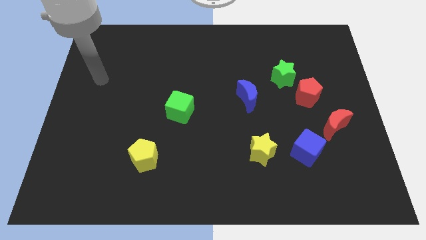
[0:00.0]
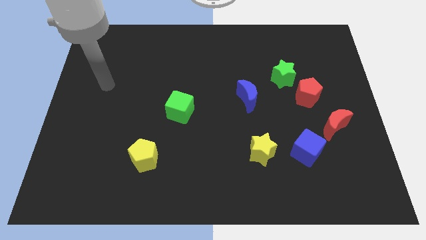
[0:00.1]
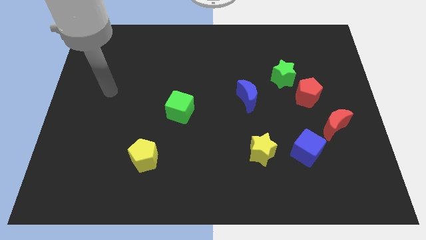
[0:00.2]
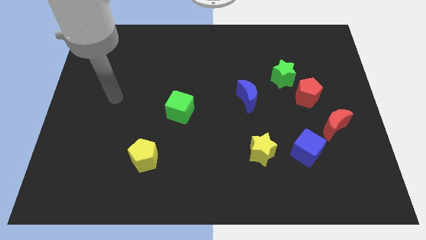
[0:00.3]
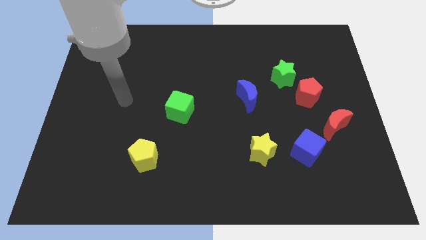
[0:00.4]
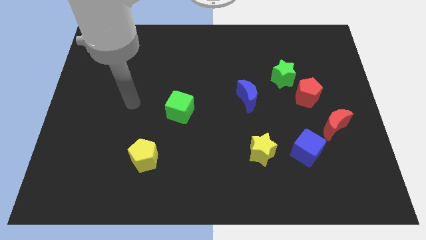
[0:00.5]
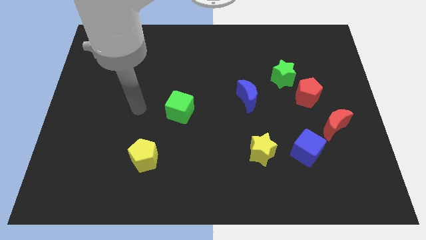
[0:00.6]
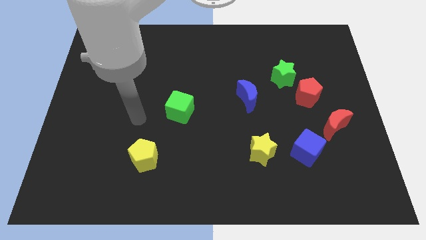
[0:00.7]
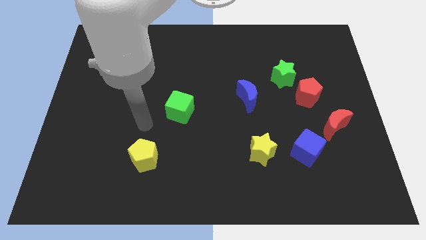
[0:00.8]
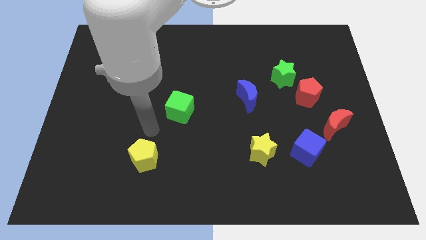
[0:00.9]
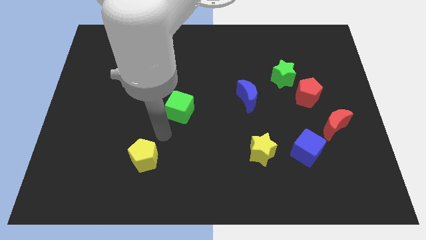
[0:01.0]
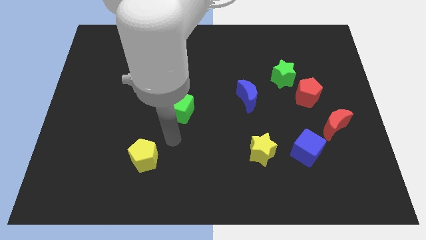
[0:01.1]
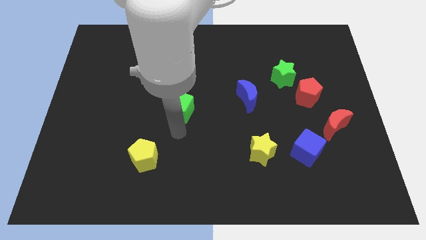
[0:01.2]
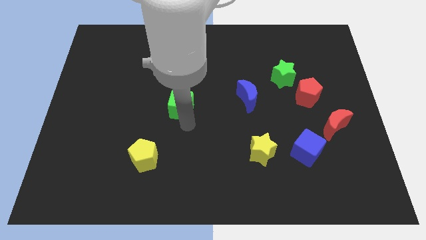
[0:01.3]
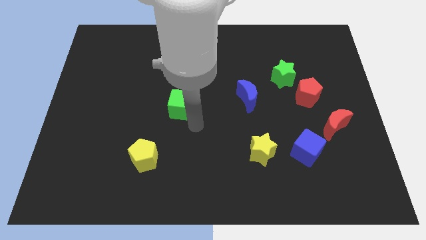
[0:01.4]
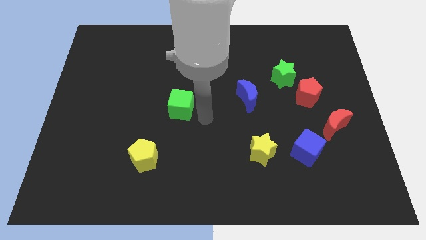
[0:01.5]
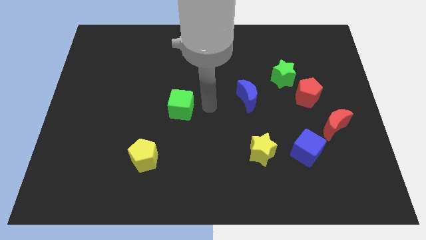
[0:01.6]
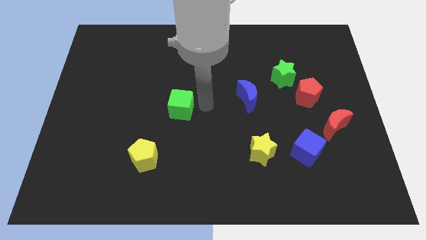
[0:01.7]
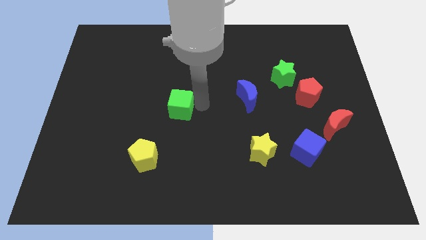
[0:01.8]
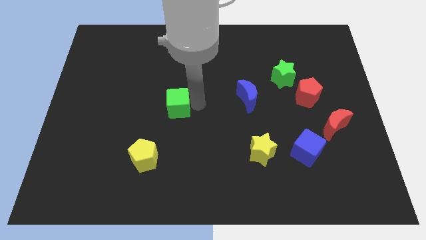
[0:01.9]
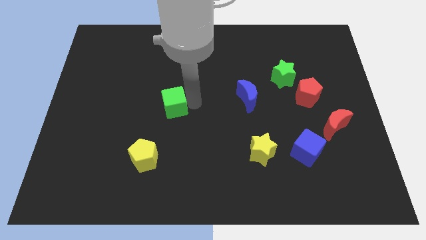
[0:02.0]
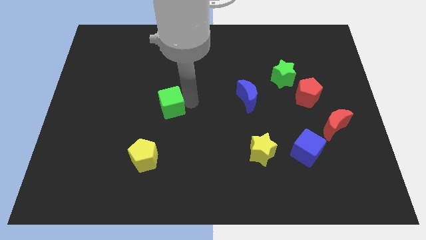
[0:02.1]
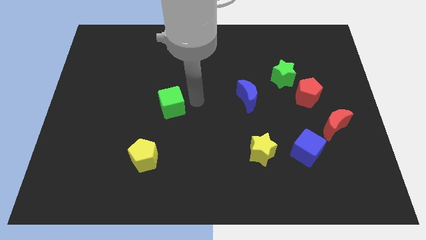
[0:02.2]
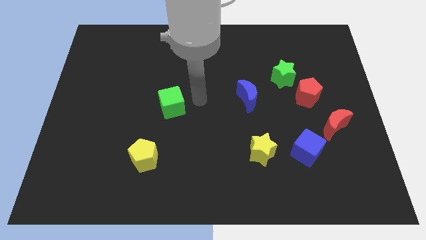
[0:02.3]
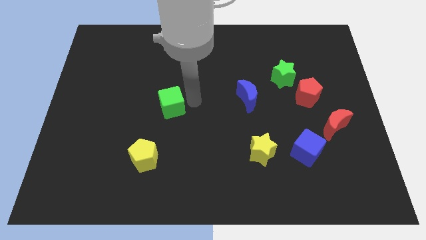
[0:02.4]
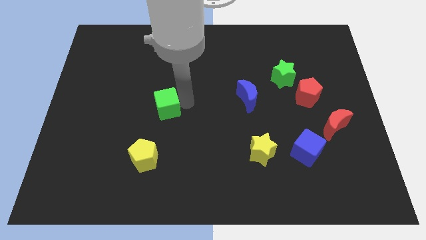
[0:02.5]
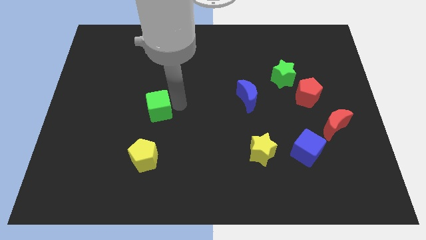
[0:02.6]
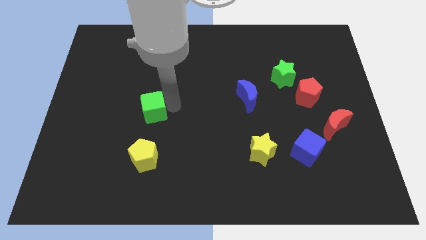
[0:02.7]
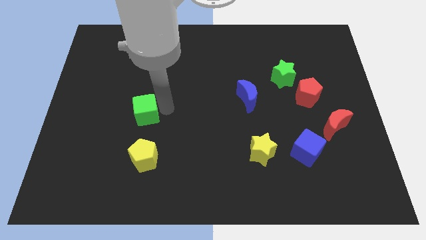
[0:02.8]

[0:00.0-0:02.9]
push the green cube to the left a little

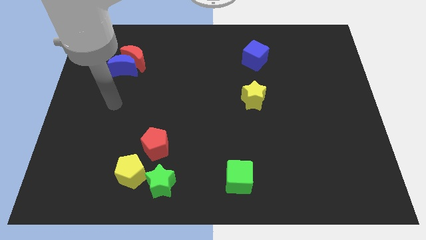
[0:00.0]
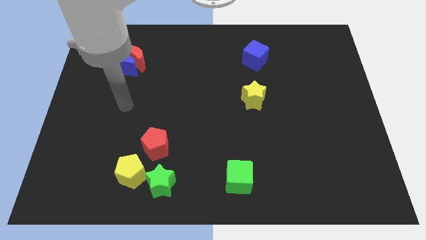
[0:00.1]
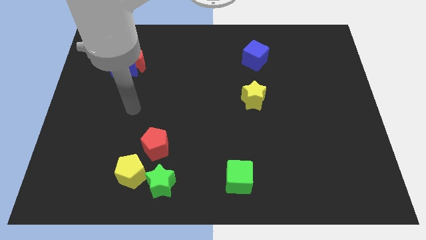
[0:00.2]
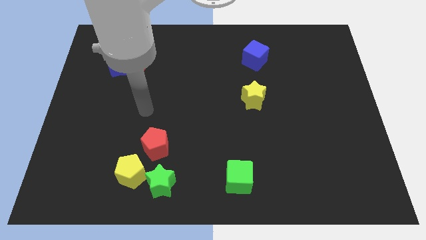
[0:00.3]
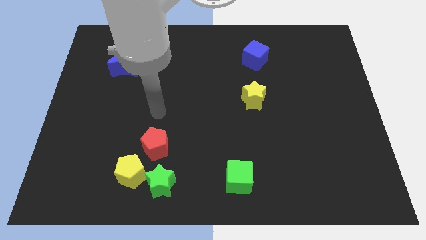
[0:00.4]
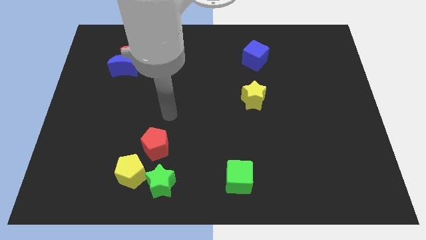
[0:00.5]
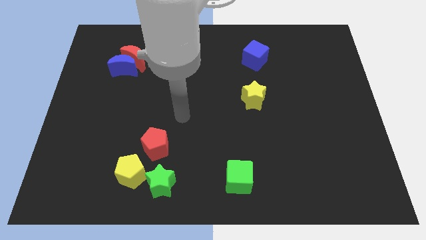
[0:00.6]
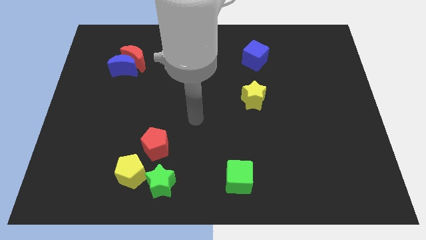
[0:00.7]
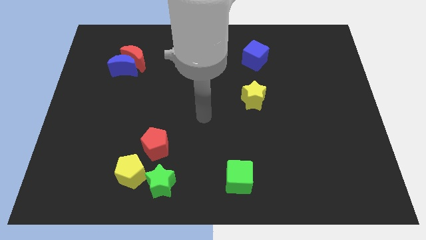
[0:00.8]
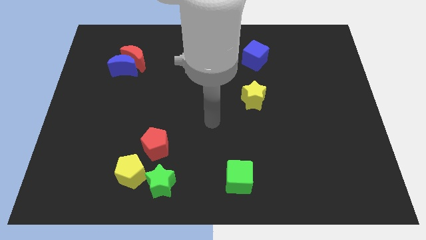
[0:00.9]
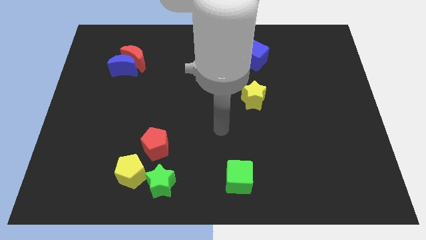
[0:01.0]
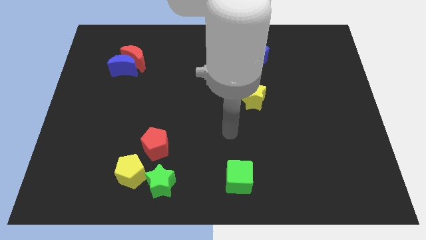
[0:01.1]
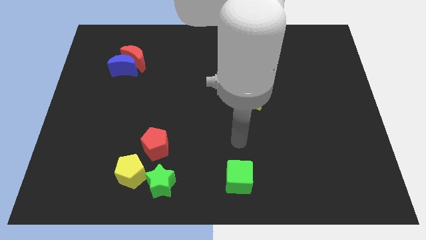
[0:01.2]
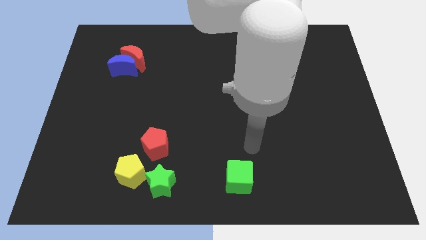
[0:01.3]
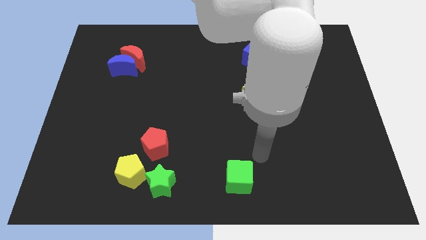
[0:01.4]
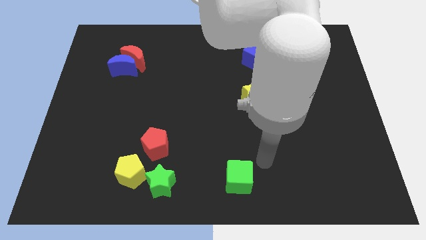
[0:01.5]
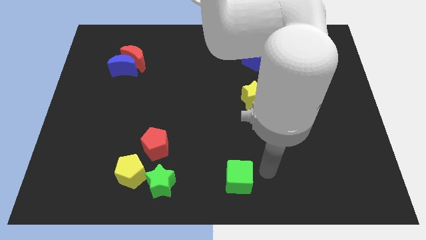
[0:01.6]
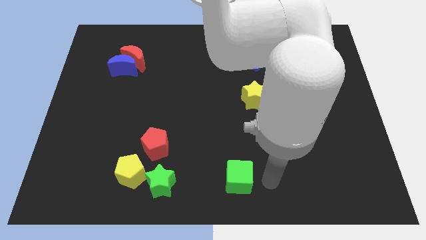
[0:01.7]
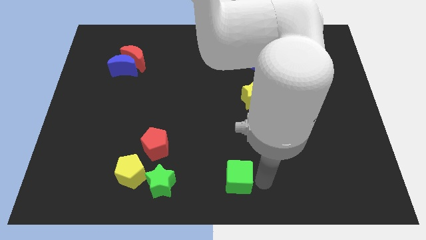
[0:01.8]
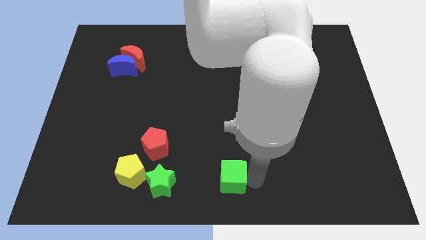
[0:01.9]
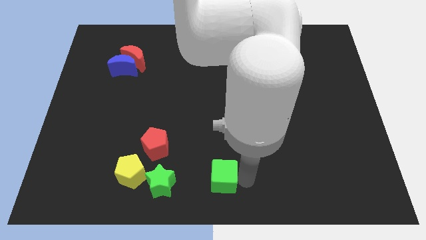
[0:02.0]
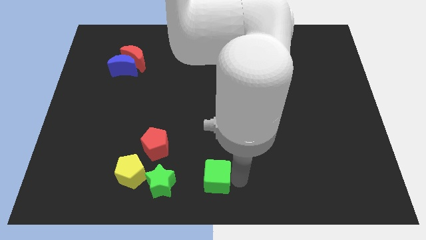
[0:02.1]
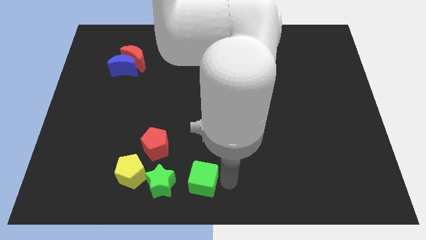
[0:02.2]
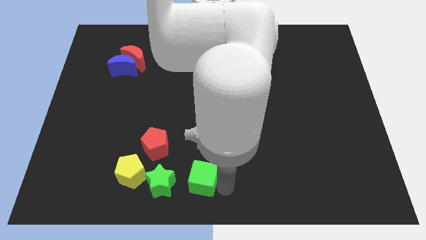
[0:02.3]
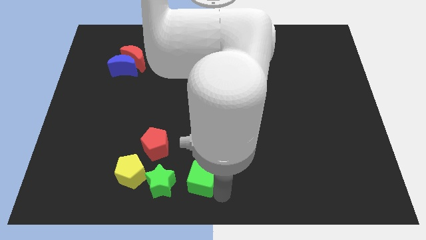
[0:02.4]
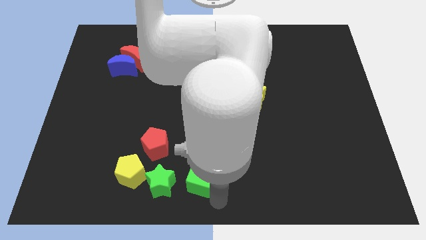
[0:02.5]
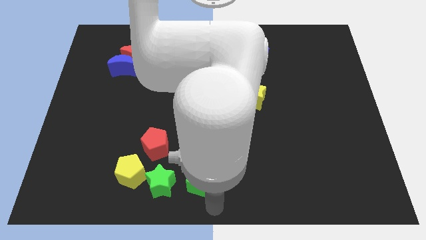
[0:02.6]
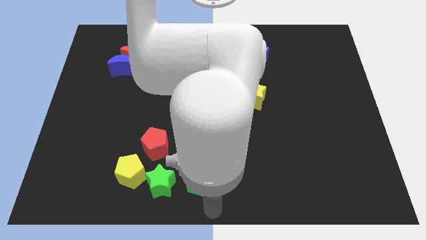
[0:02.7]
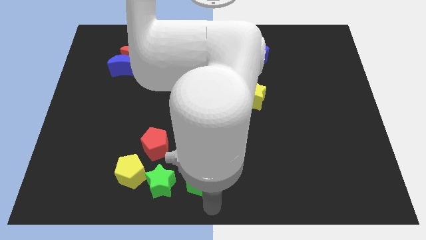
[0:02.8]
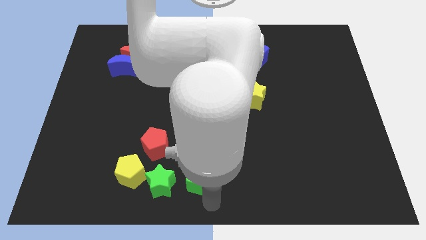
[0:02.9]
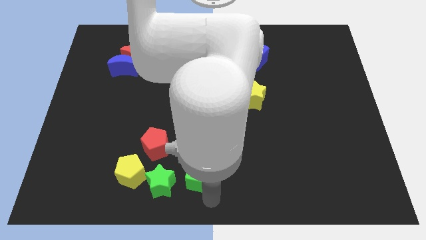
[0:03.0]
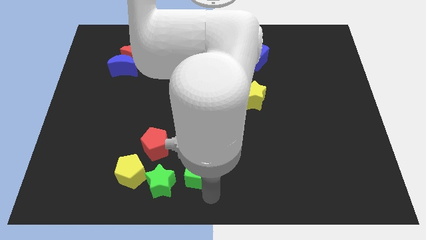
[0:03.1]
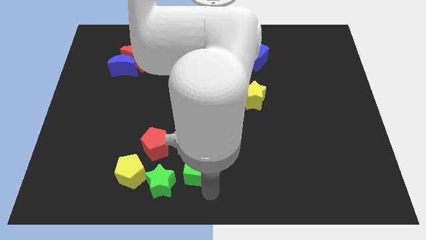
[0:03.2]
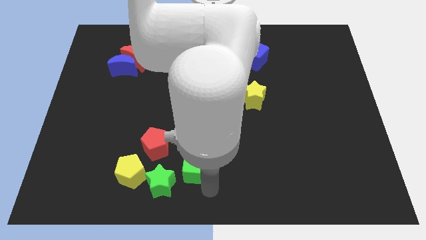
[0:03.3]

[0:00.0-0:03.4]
slide the green cube somewhat up and to the left

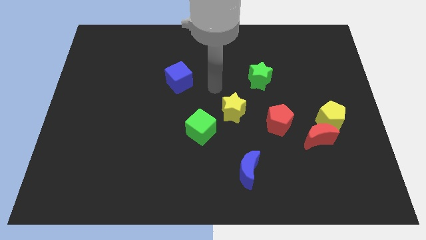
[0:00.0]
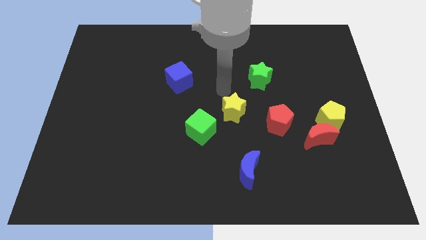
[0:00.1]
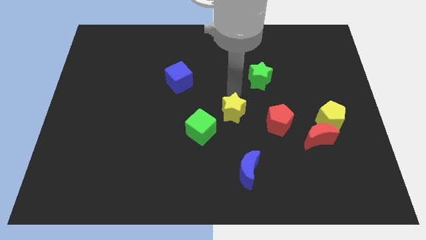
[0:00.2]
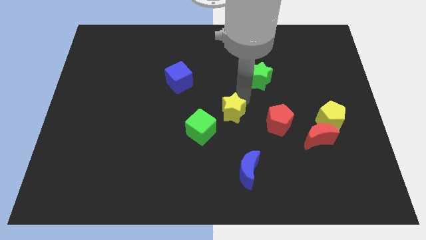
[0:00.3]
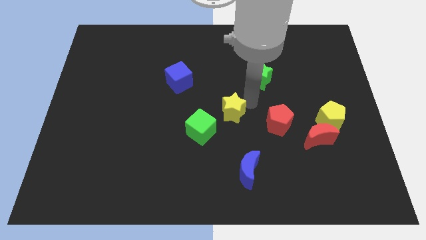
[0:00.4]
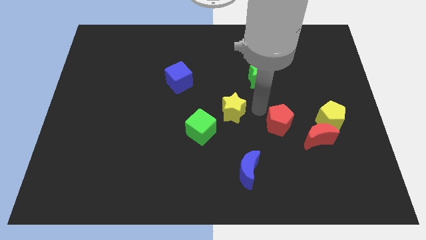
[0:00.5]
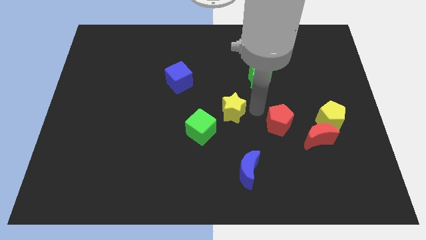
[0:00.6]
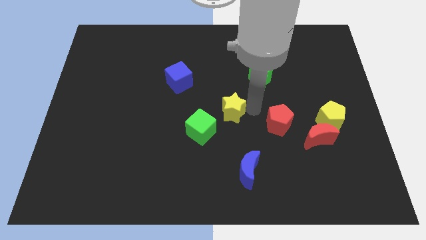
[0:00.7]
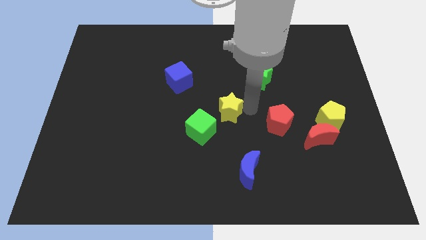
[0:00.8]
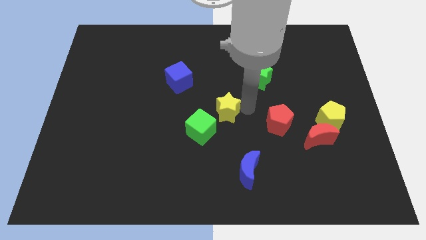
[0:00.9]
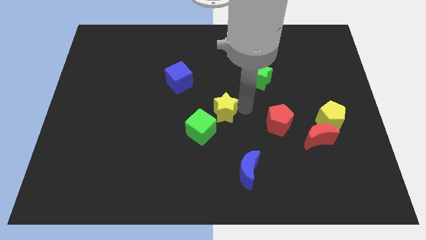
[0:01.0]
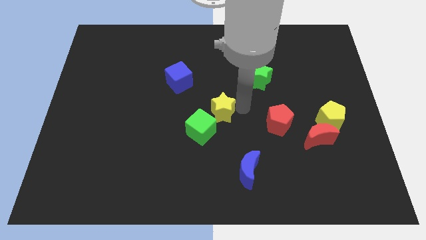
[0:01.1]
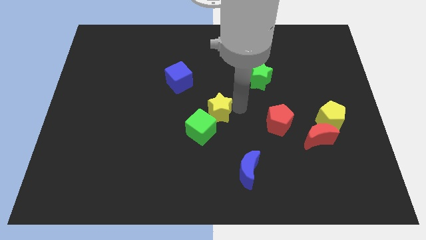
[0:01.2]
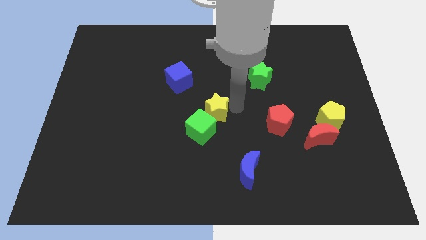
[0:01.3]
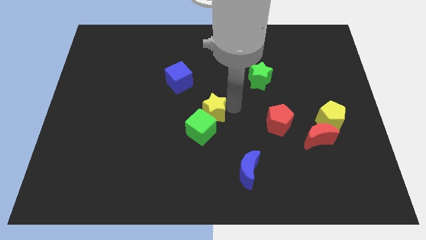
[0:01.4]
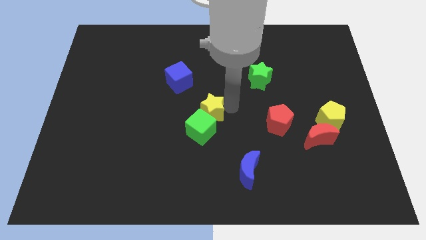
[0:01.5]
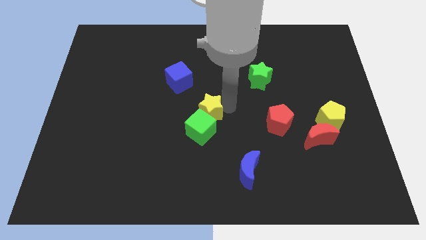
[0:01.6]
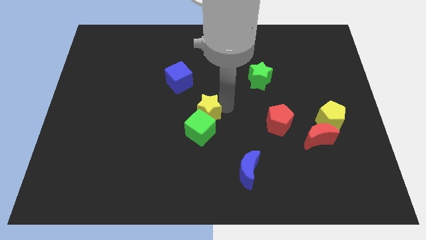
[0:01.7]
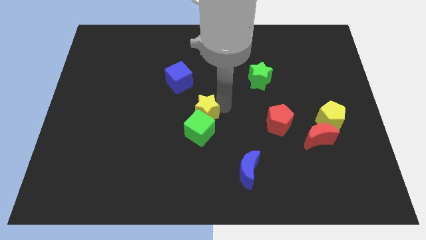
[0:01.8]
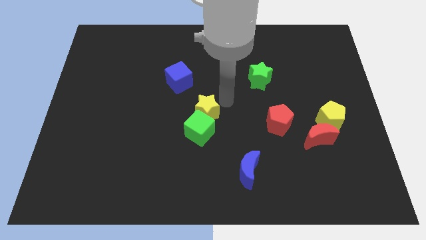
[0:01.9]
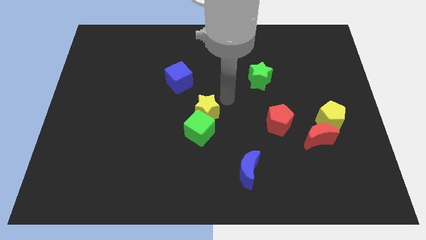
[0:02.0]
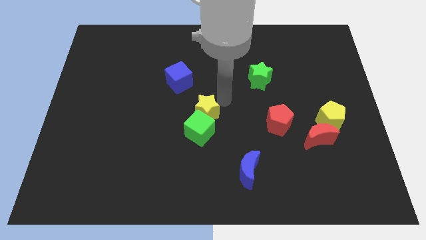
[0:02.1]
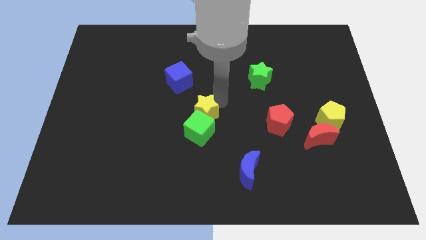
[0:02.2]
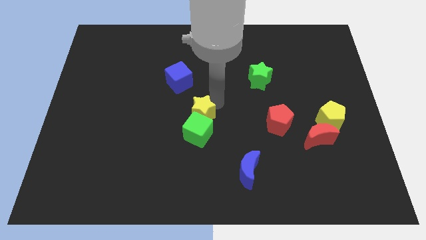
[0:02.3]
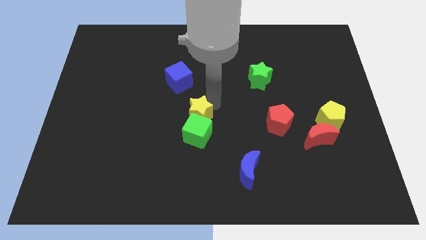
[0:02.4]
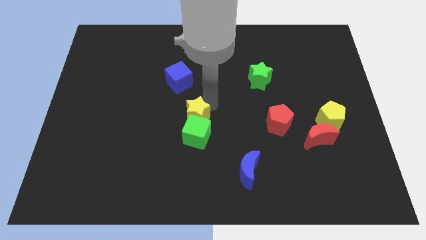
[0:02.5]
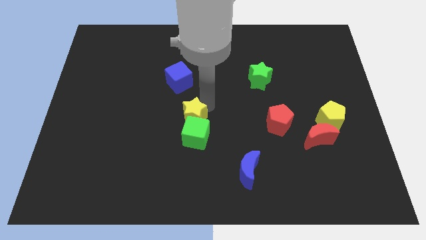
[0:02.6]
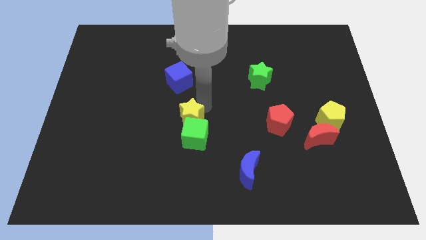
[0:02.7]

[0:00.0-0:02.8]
slightly push the yellow star downwards and left
